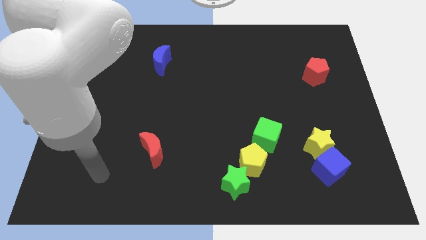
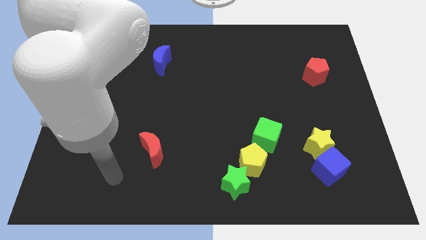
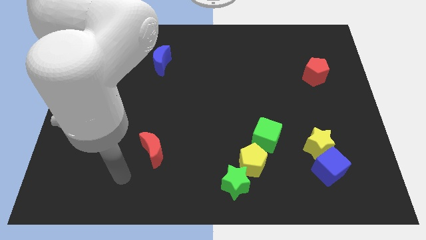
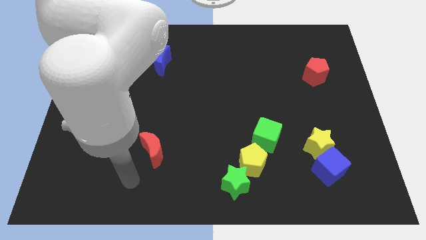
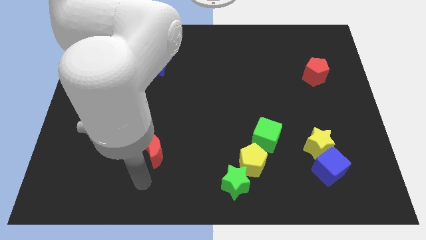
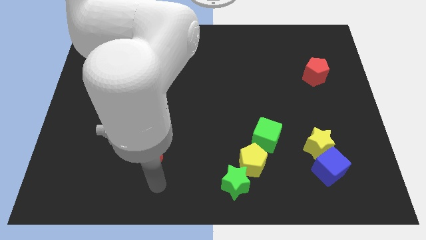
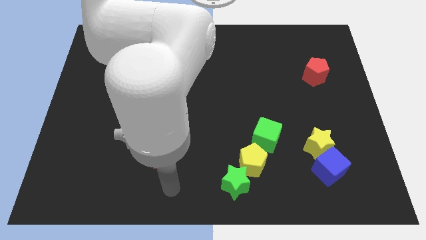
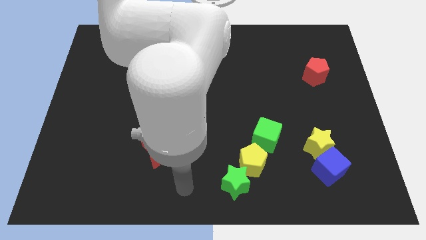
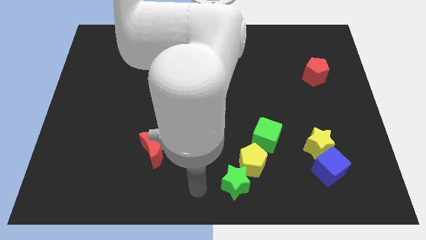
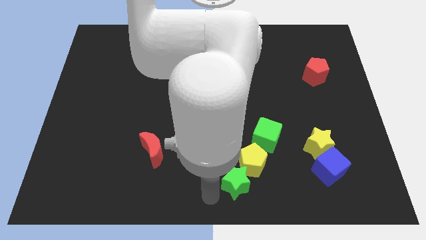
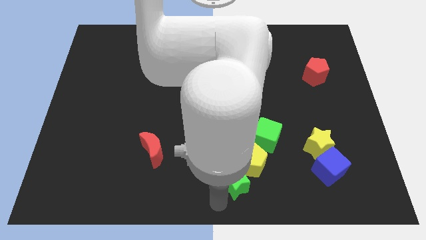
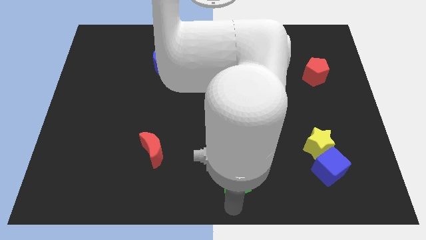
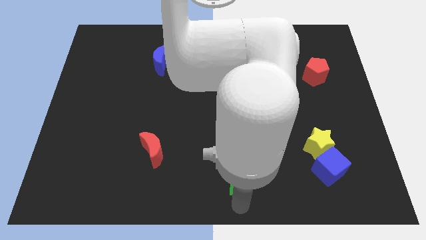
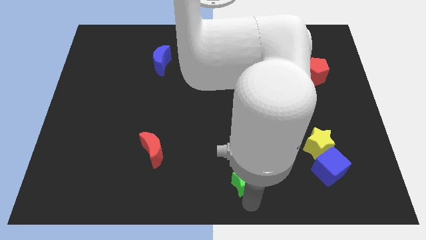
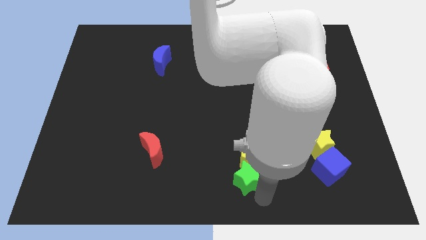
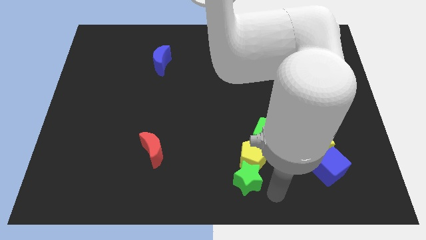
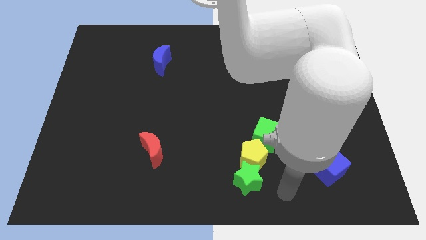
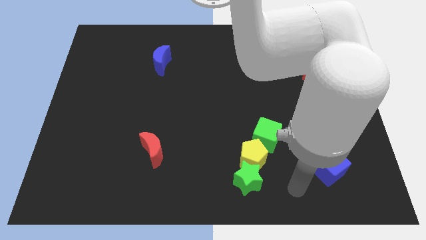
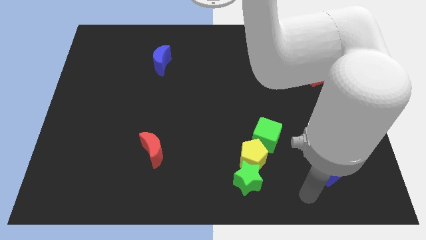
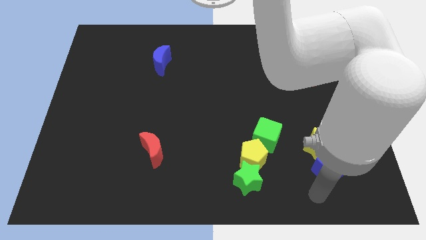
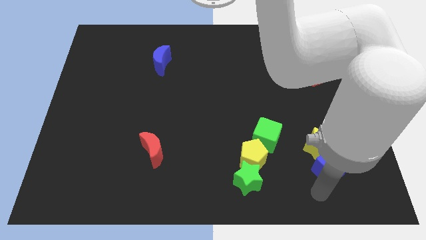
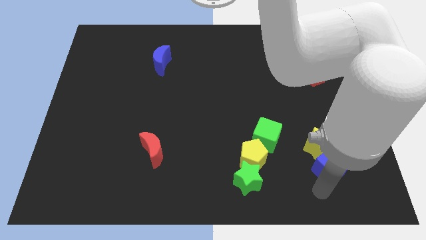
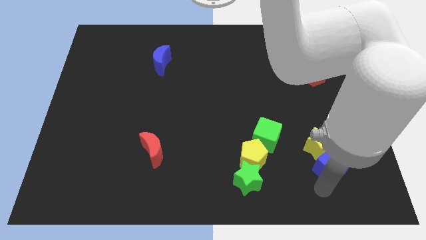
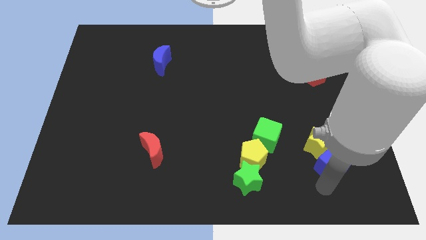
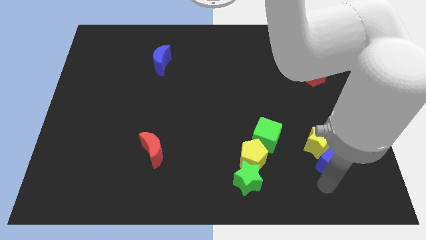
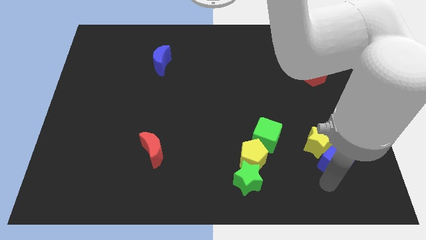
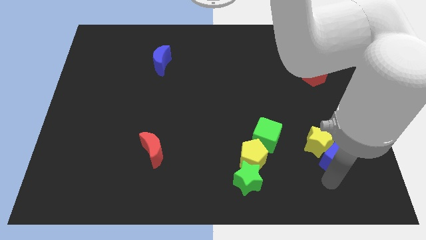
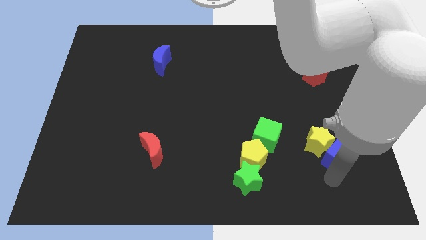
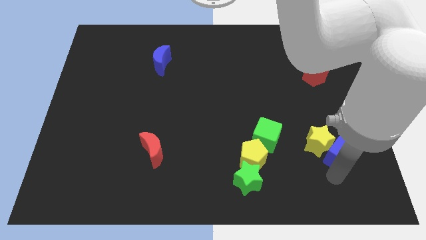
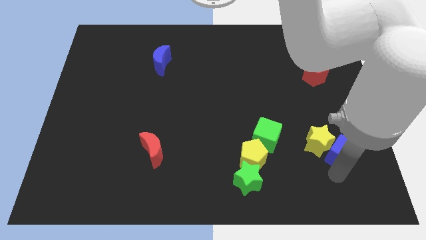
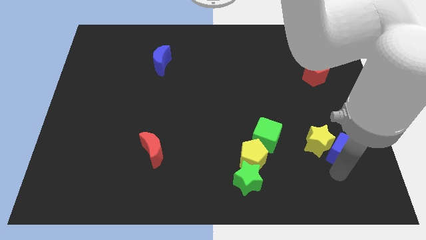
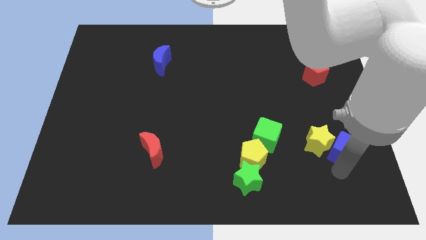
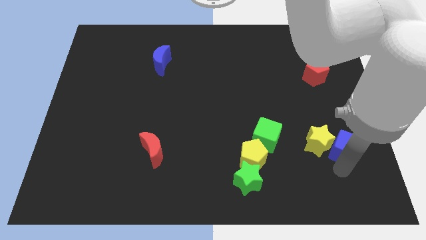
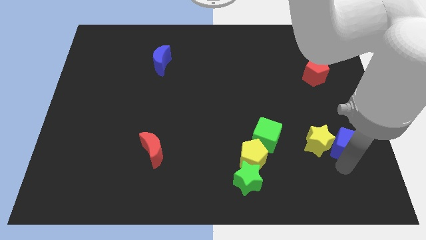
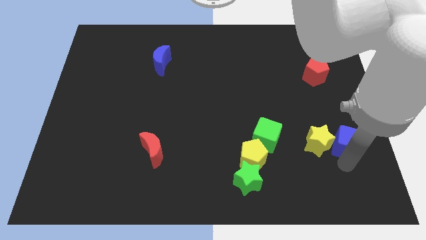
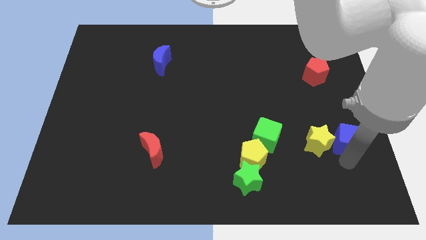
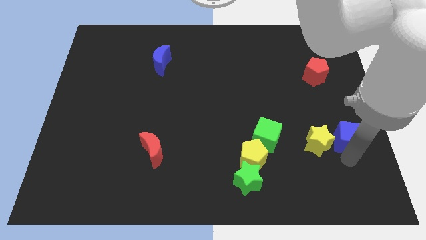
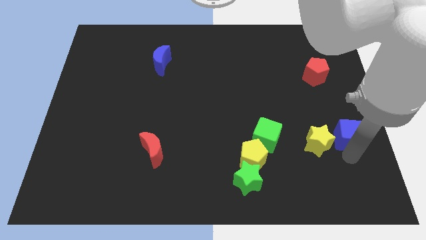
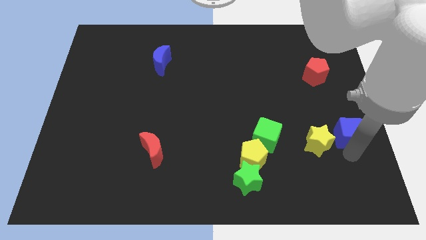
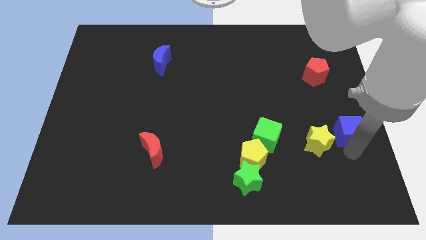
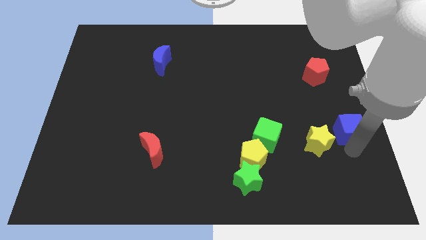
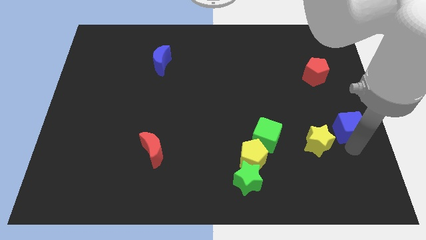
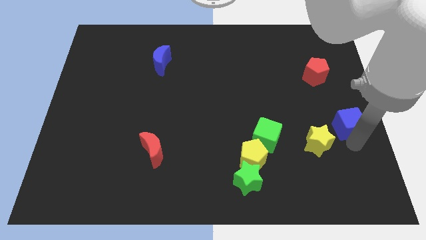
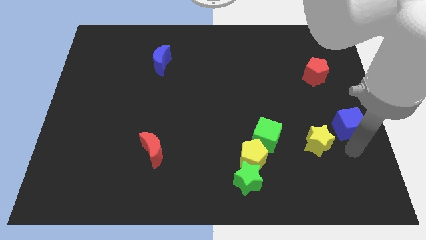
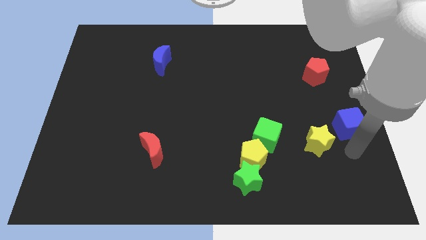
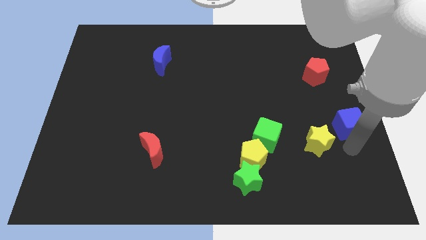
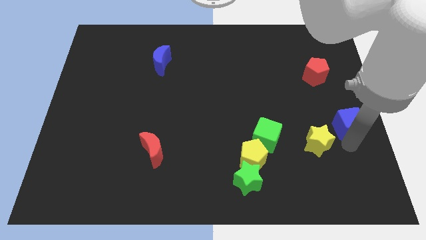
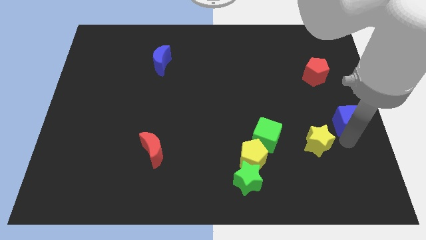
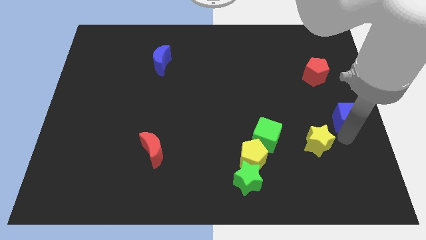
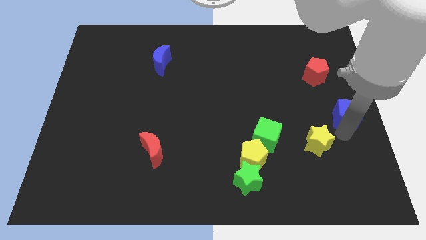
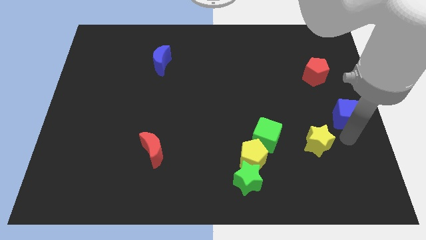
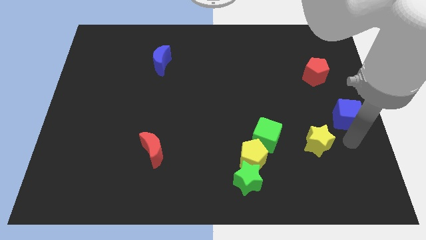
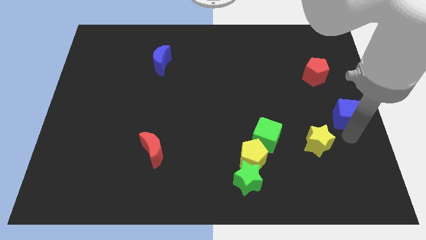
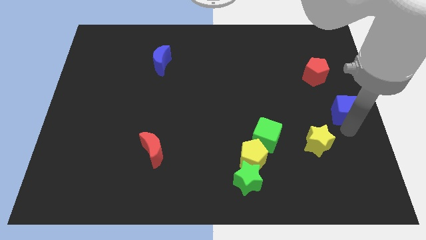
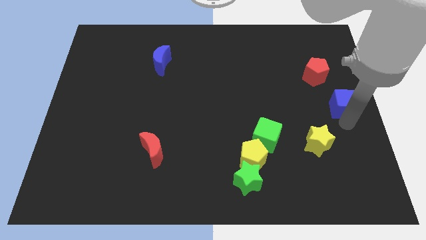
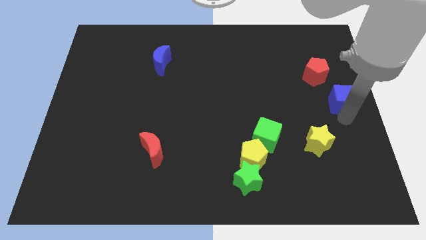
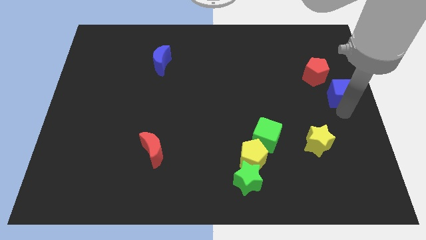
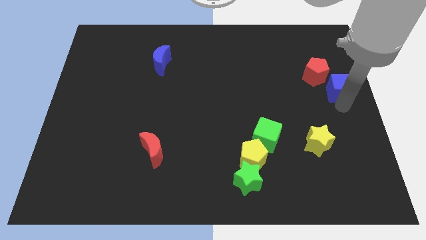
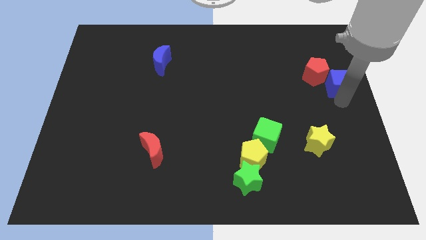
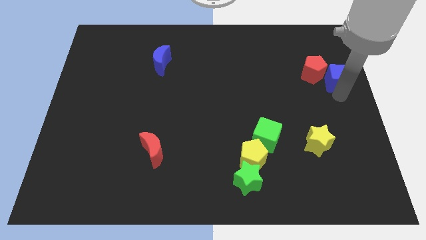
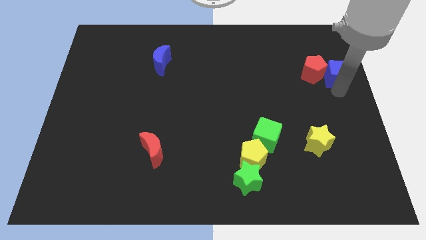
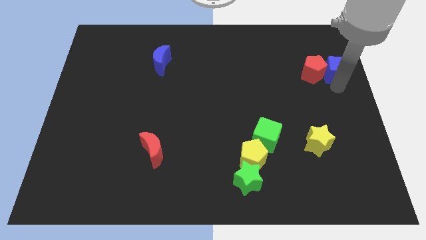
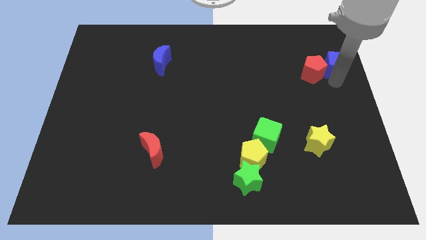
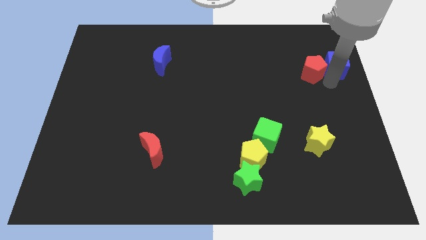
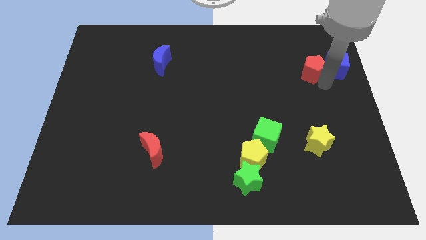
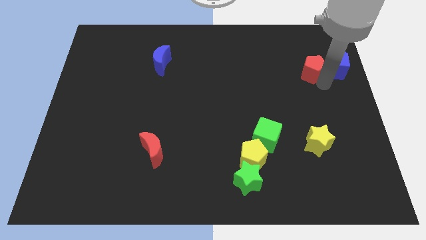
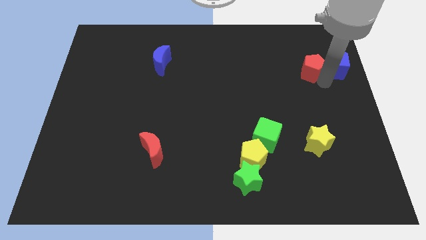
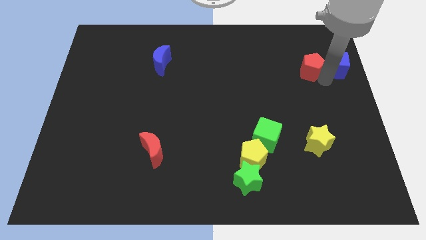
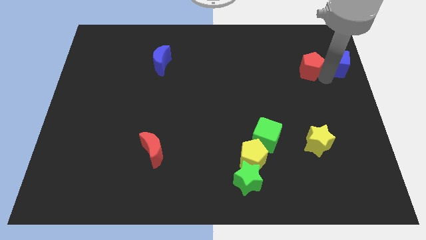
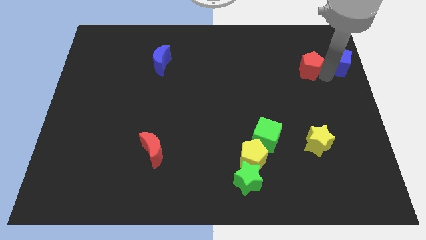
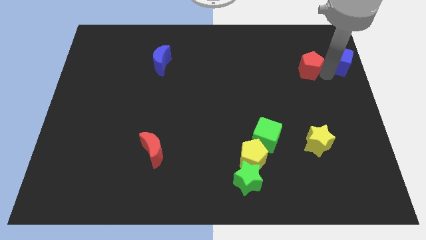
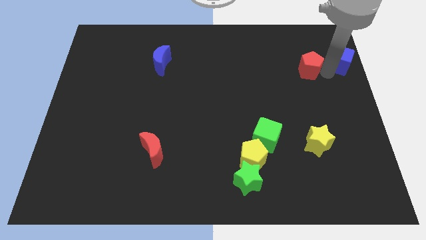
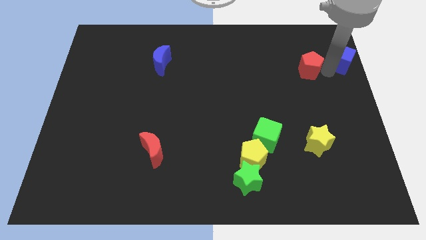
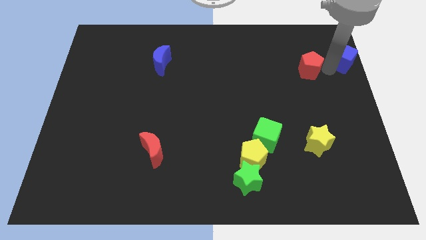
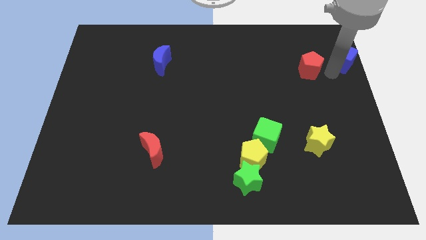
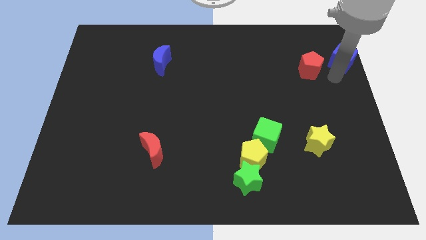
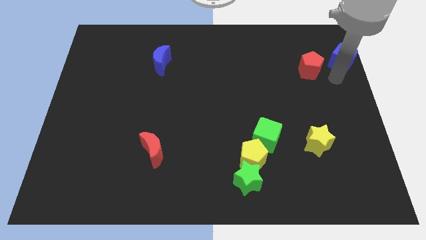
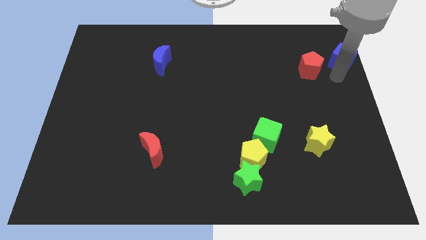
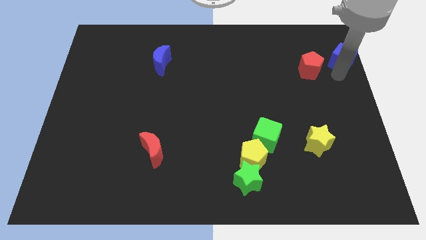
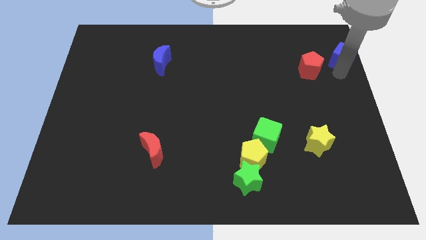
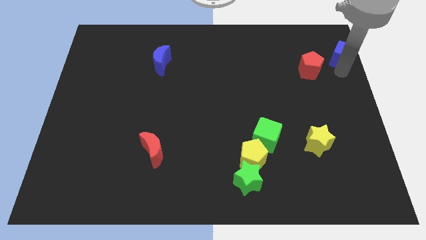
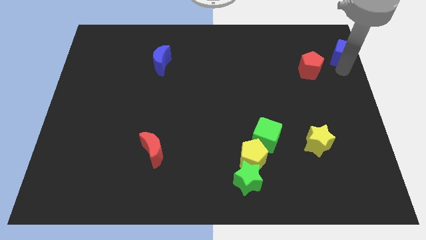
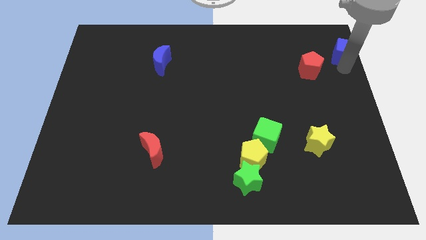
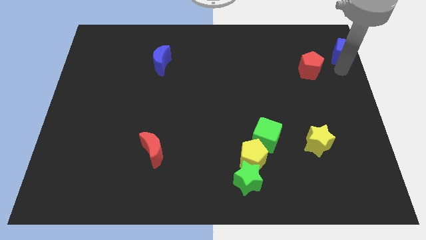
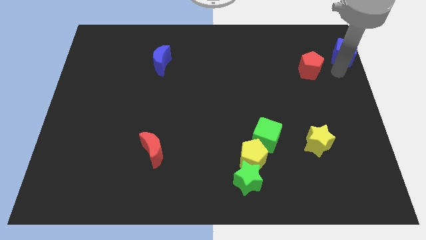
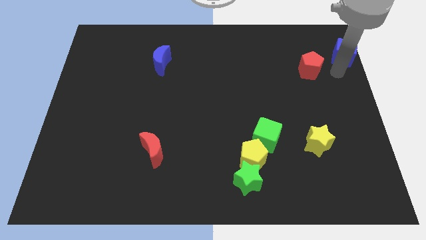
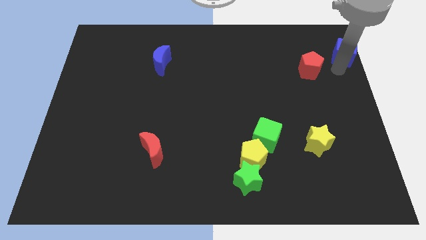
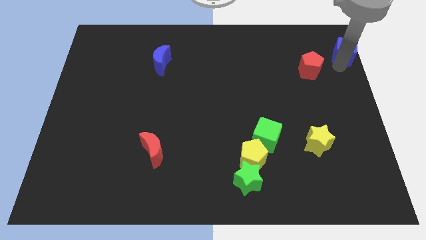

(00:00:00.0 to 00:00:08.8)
push the blue cube to the upper right corner
